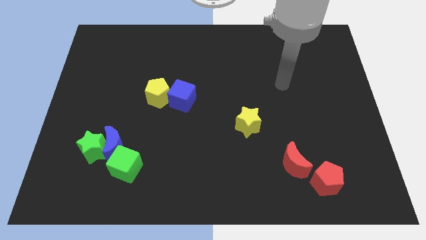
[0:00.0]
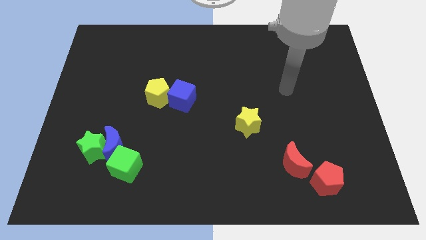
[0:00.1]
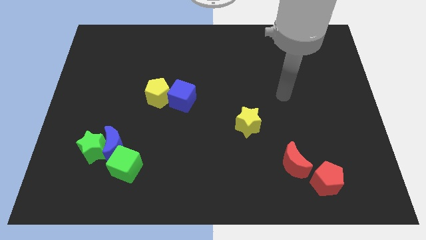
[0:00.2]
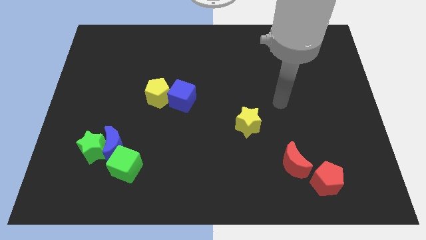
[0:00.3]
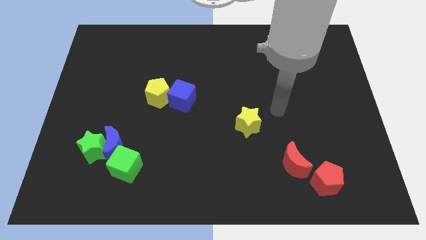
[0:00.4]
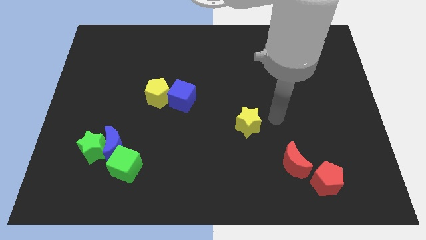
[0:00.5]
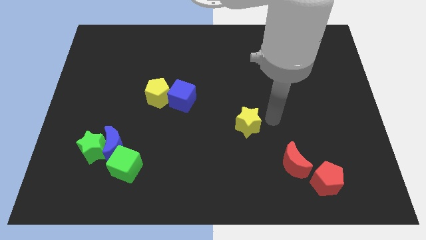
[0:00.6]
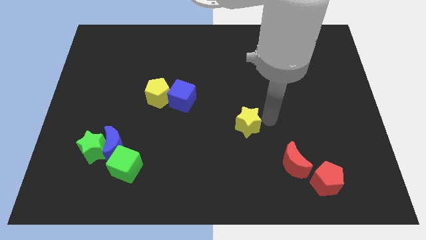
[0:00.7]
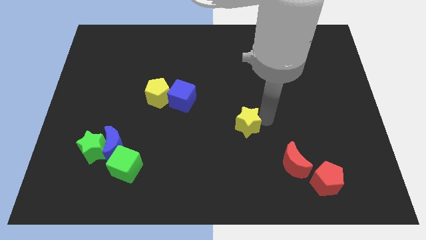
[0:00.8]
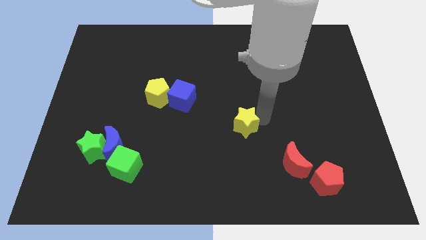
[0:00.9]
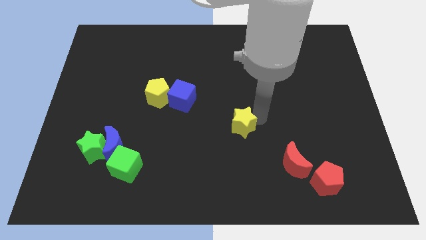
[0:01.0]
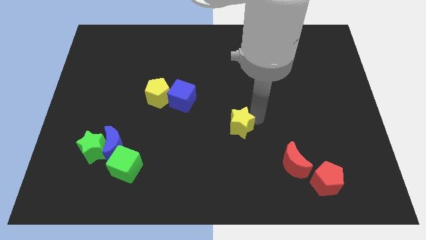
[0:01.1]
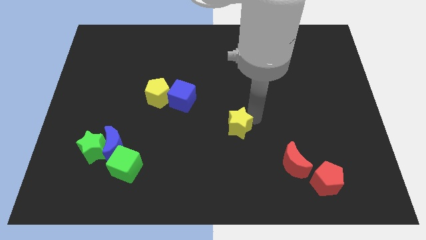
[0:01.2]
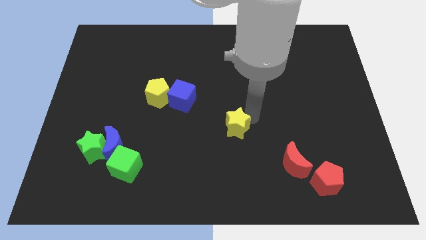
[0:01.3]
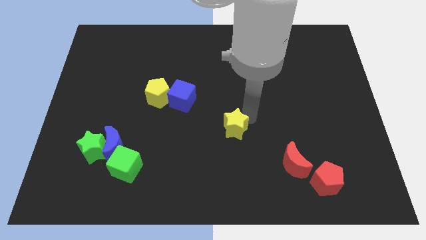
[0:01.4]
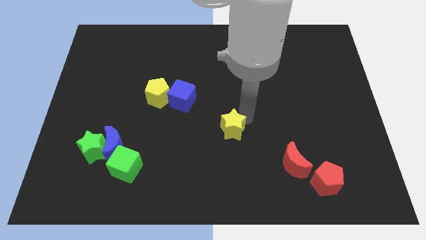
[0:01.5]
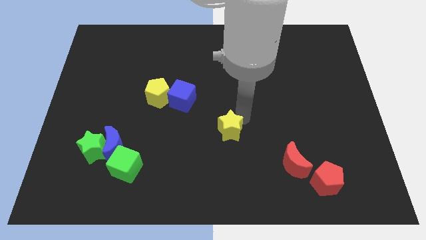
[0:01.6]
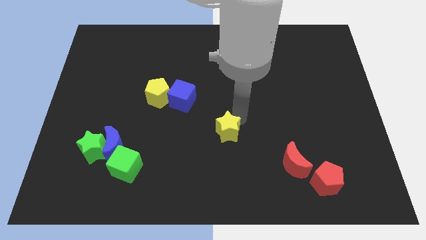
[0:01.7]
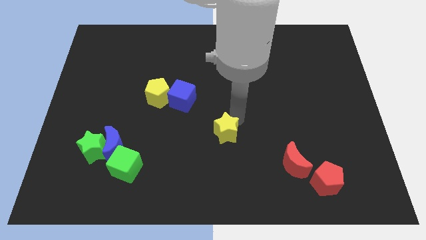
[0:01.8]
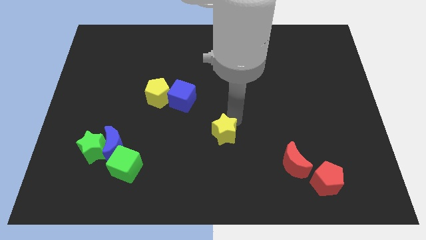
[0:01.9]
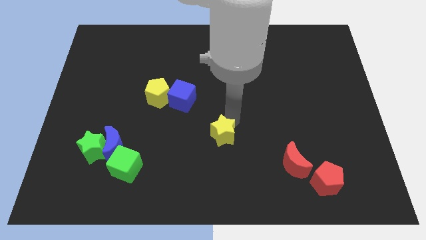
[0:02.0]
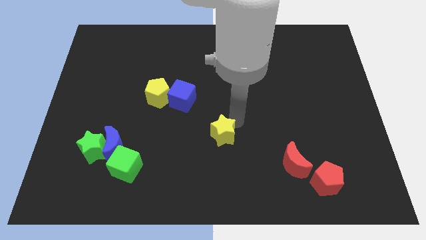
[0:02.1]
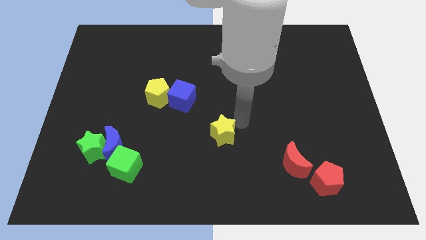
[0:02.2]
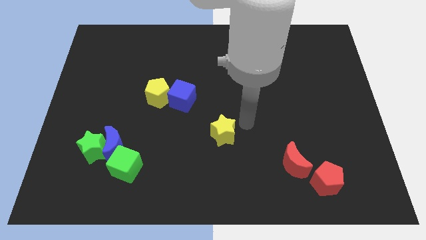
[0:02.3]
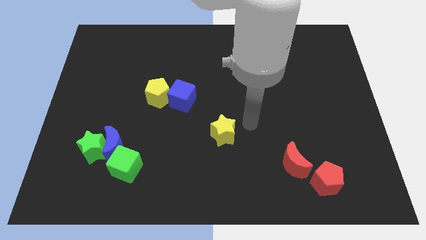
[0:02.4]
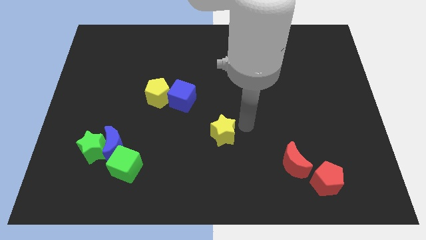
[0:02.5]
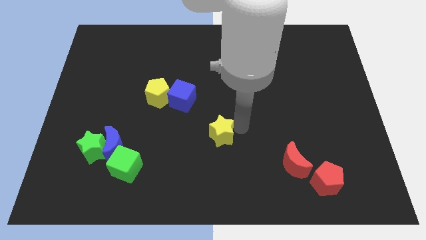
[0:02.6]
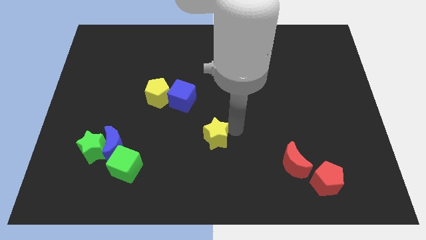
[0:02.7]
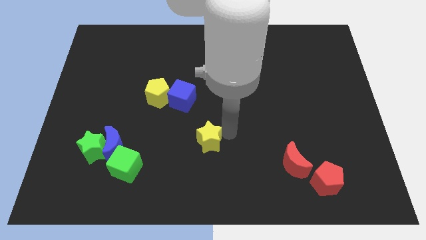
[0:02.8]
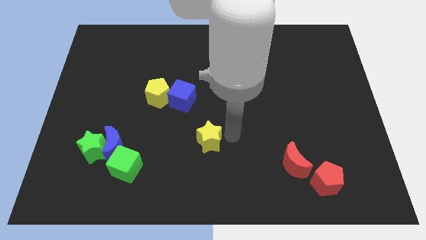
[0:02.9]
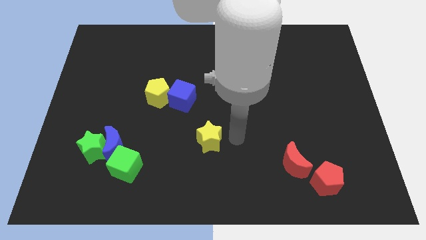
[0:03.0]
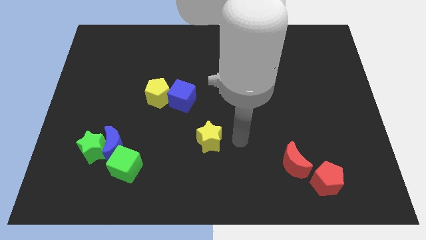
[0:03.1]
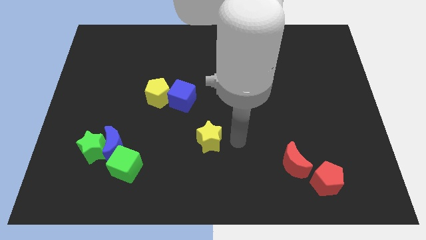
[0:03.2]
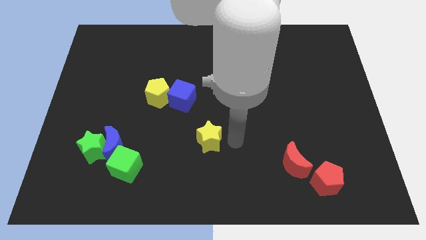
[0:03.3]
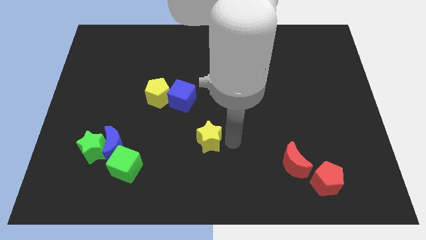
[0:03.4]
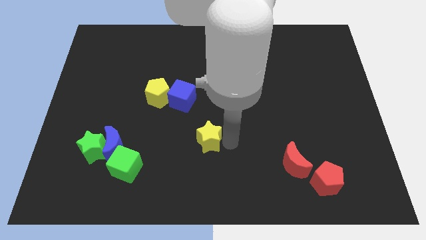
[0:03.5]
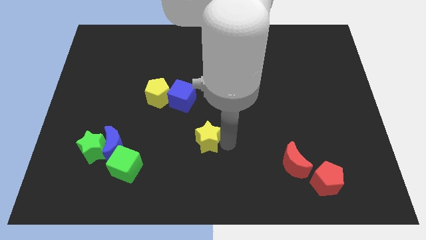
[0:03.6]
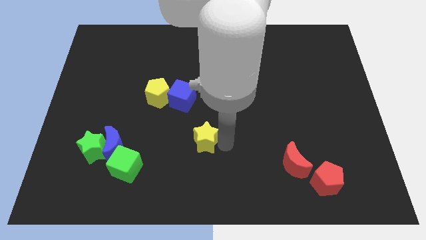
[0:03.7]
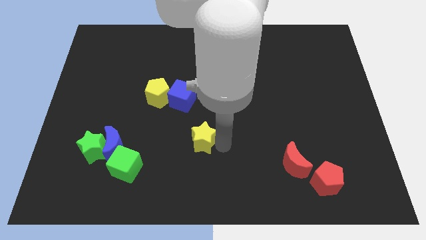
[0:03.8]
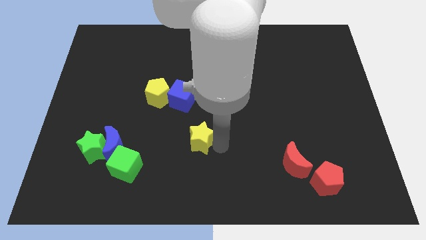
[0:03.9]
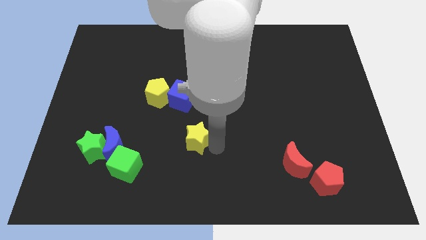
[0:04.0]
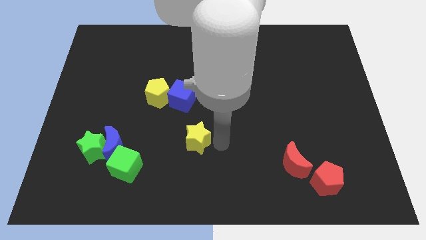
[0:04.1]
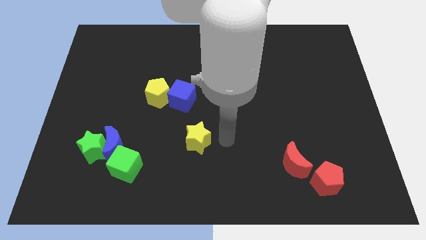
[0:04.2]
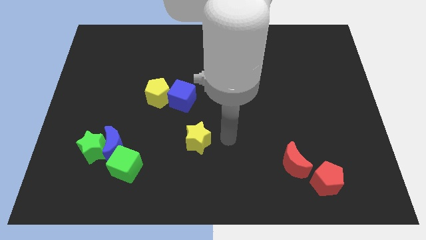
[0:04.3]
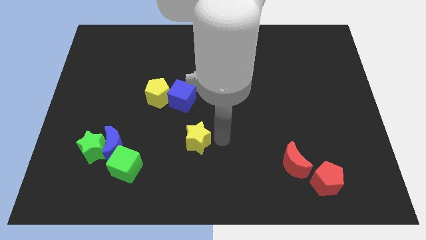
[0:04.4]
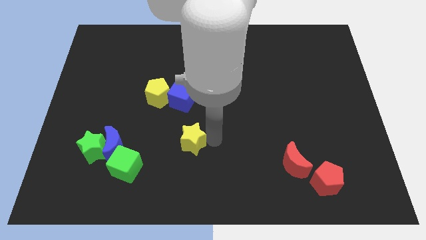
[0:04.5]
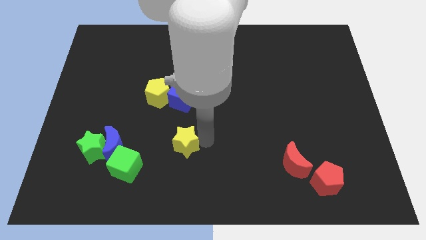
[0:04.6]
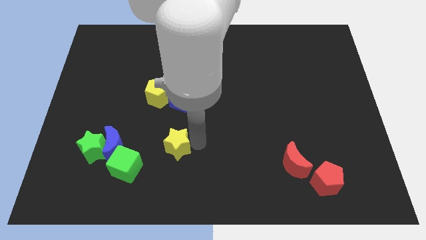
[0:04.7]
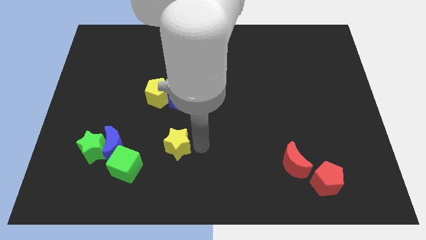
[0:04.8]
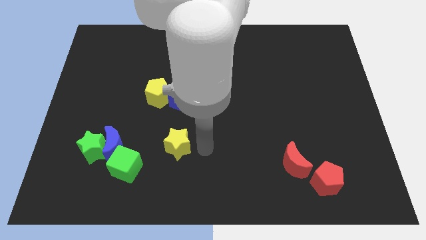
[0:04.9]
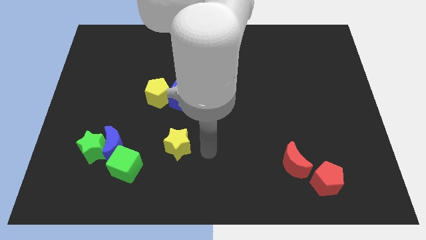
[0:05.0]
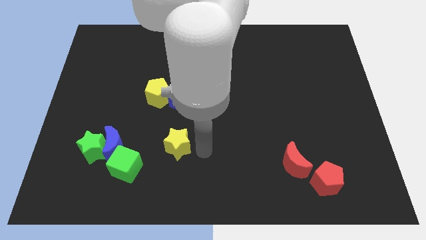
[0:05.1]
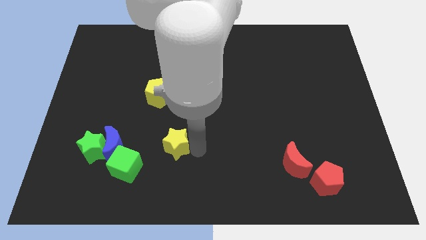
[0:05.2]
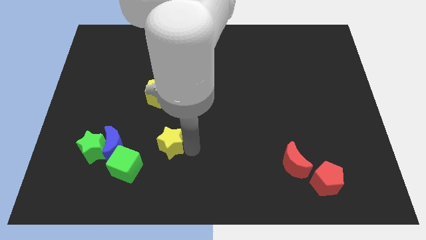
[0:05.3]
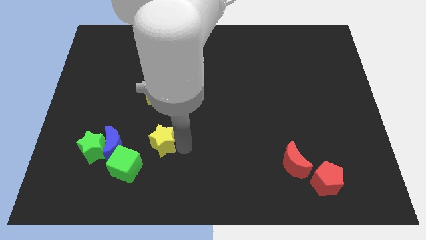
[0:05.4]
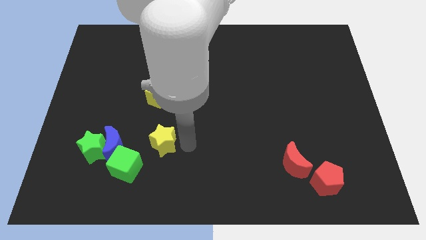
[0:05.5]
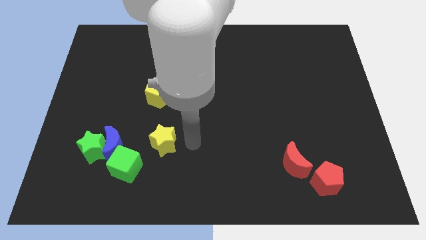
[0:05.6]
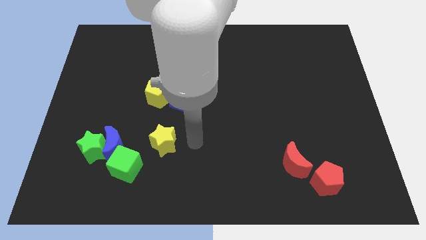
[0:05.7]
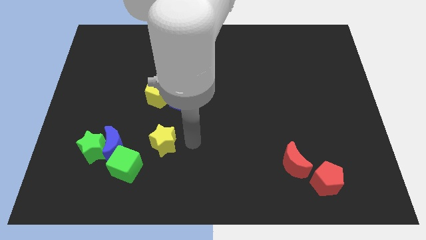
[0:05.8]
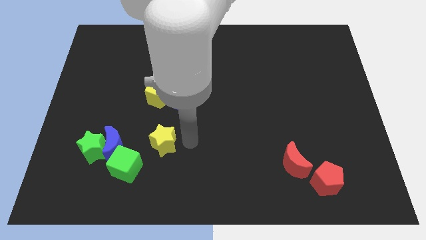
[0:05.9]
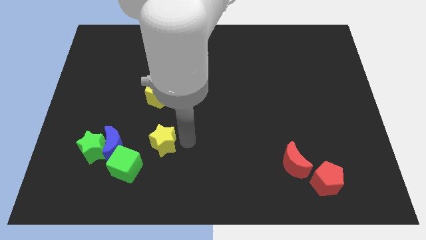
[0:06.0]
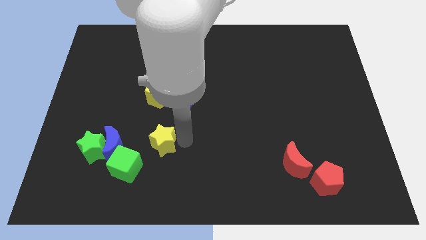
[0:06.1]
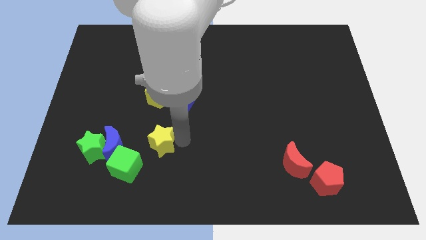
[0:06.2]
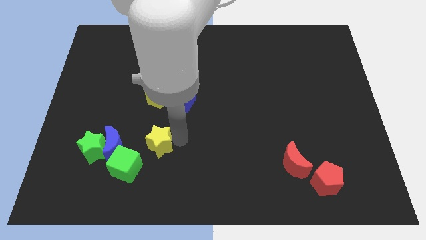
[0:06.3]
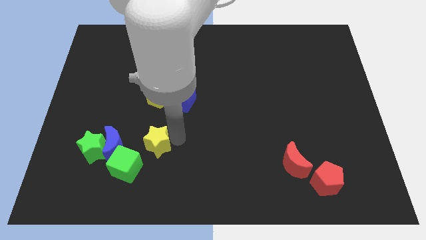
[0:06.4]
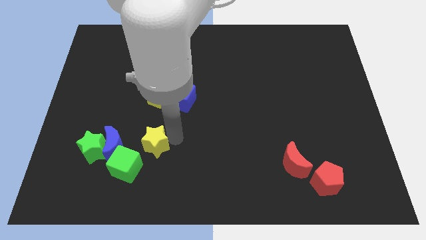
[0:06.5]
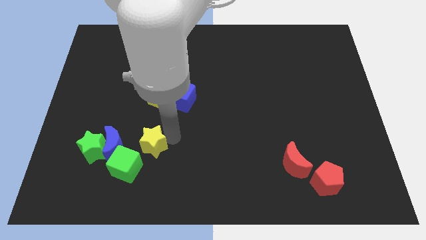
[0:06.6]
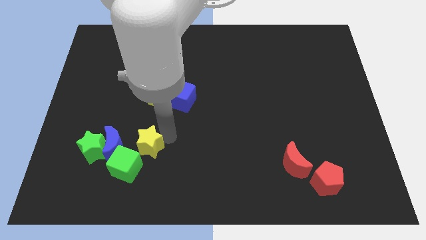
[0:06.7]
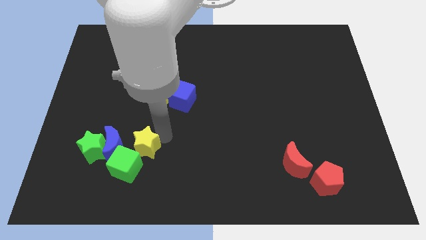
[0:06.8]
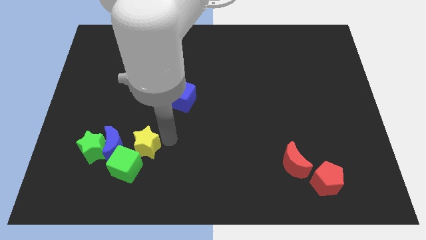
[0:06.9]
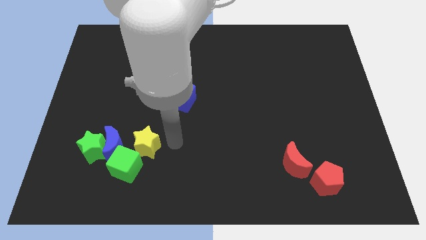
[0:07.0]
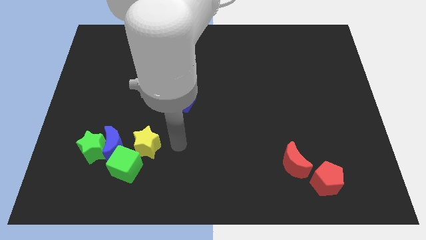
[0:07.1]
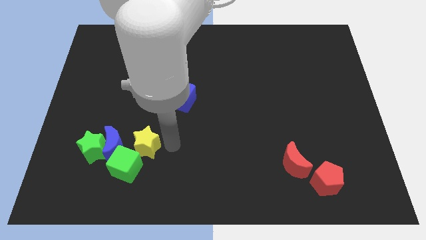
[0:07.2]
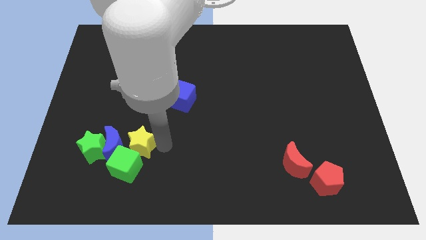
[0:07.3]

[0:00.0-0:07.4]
move the yellow star next to the blue moon

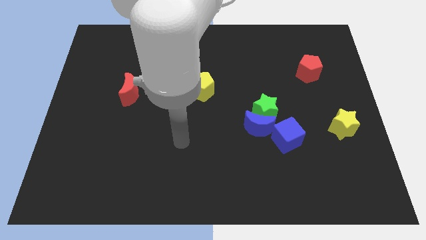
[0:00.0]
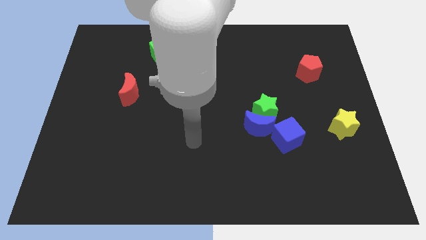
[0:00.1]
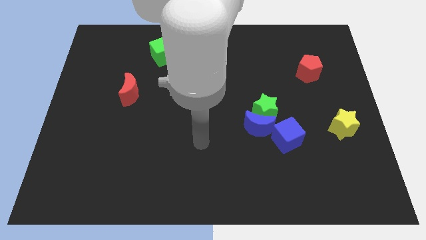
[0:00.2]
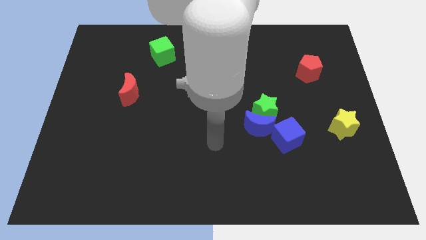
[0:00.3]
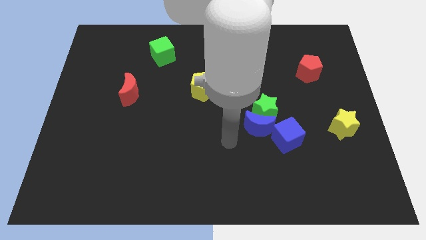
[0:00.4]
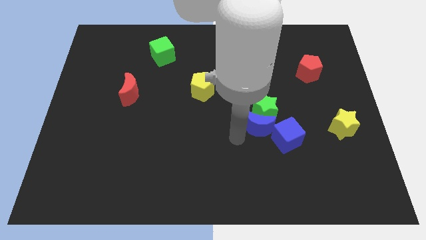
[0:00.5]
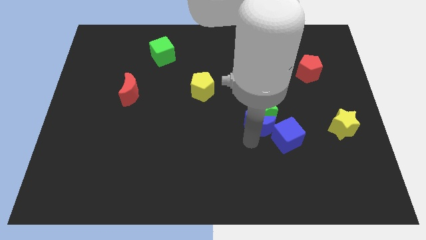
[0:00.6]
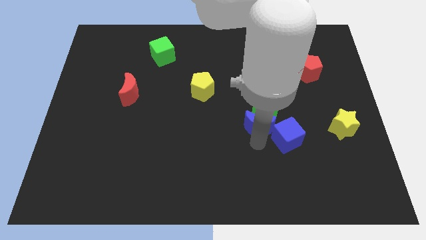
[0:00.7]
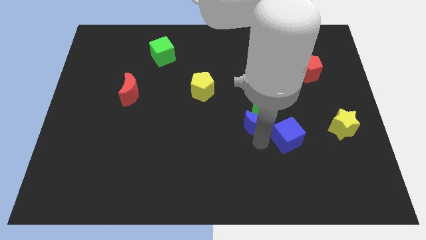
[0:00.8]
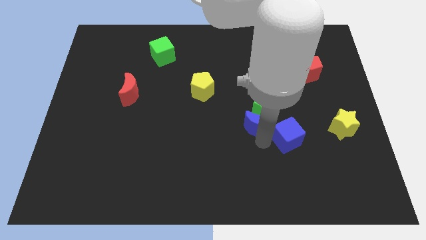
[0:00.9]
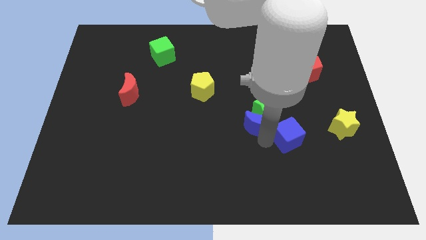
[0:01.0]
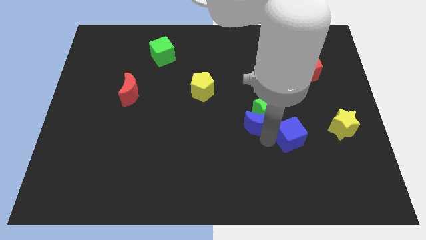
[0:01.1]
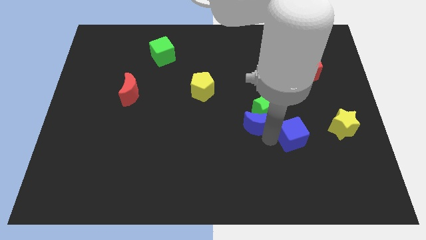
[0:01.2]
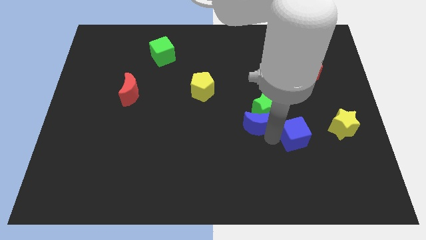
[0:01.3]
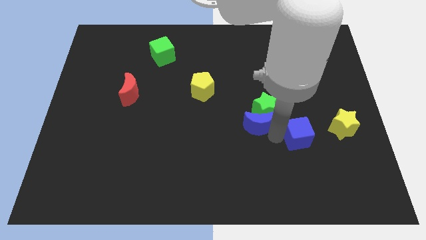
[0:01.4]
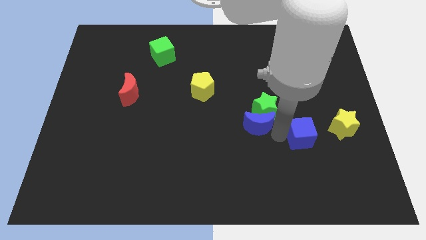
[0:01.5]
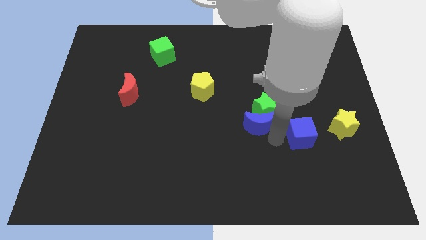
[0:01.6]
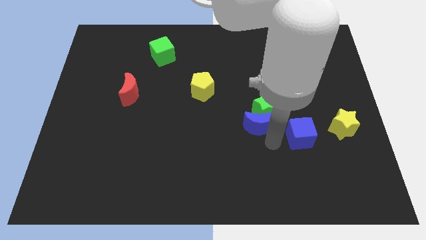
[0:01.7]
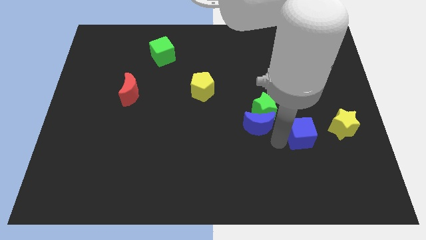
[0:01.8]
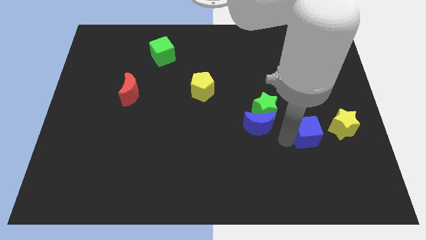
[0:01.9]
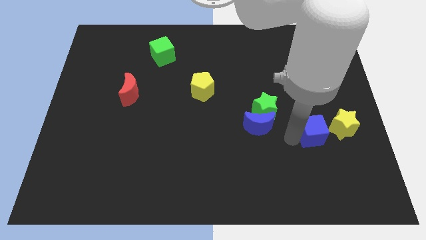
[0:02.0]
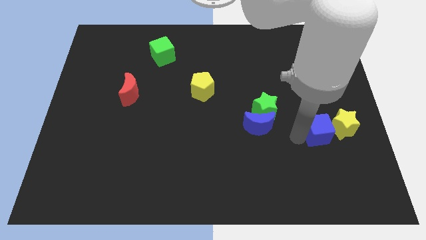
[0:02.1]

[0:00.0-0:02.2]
push the blue cube towards the yellow star
